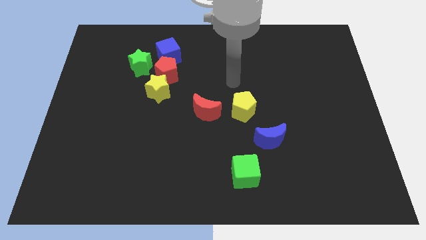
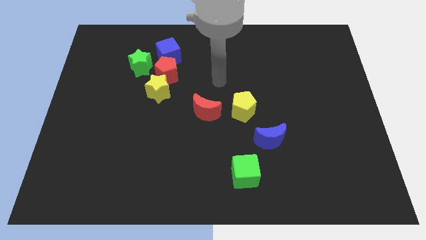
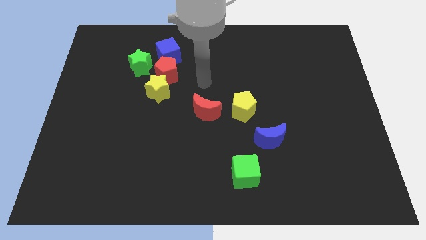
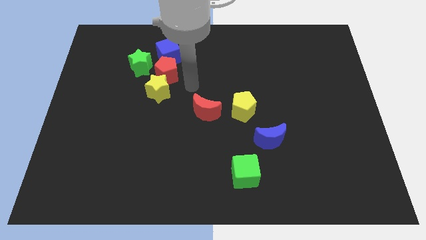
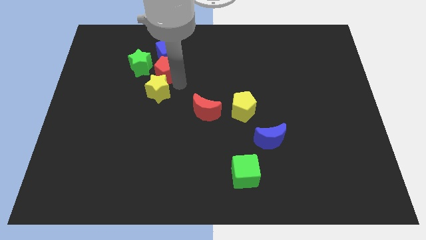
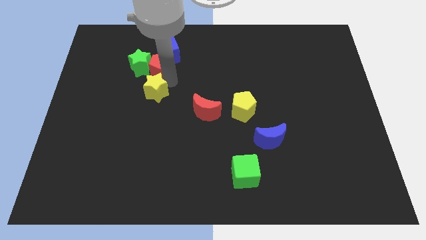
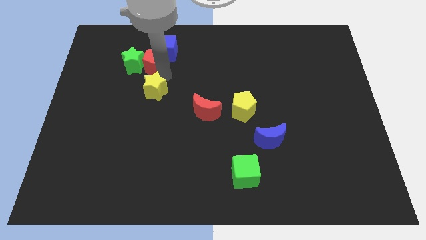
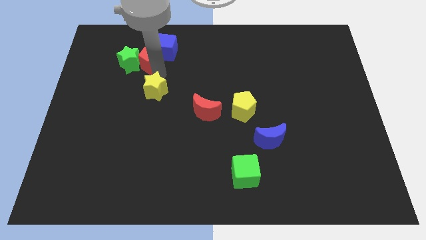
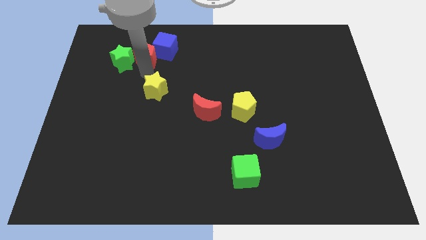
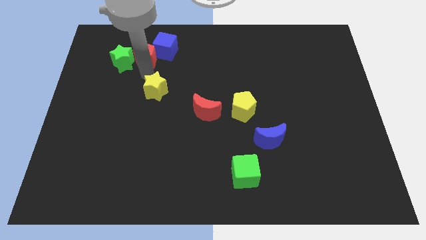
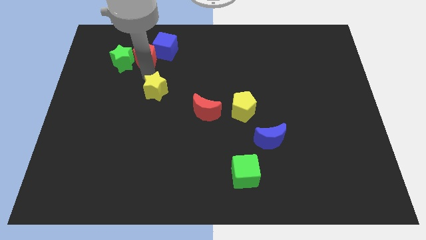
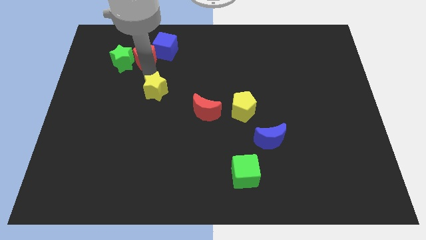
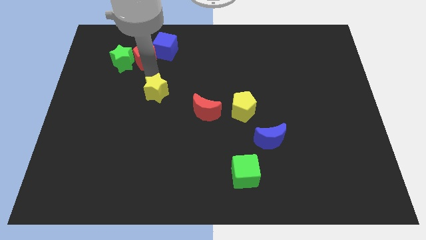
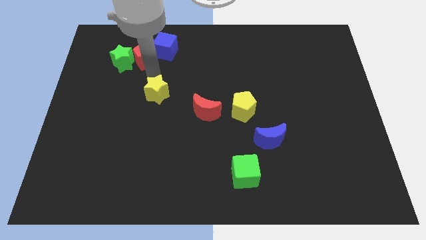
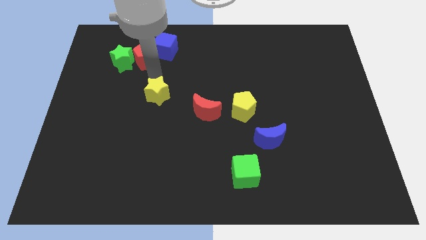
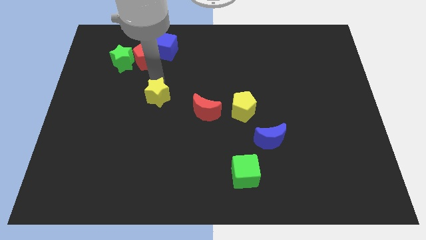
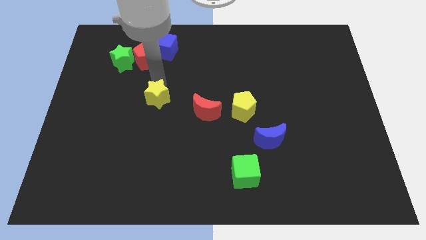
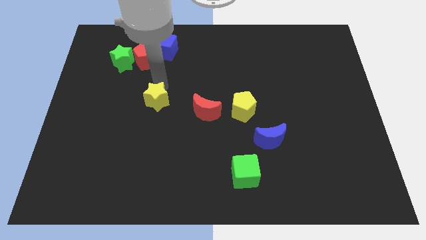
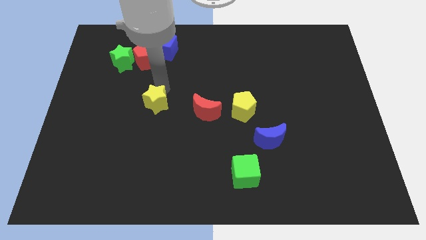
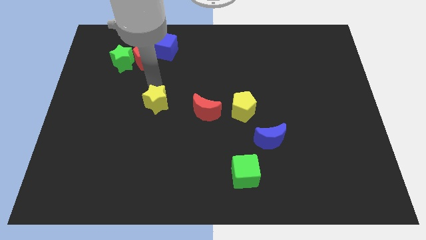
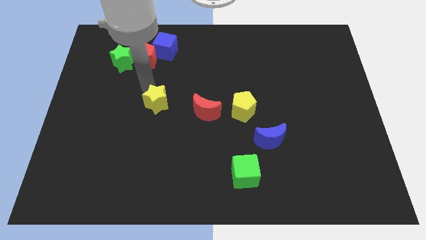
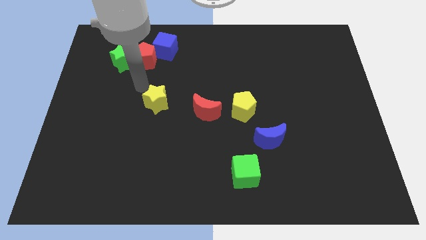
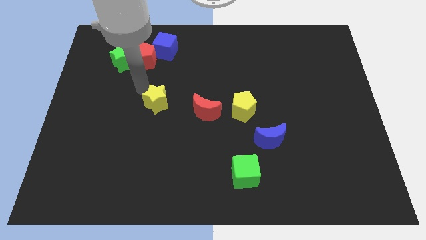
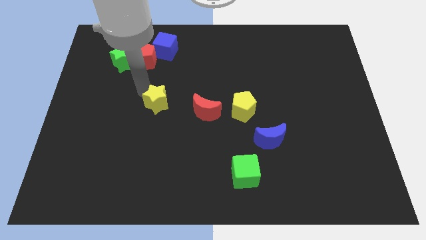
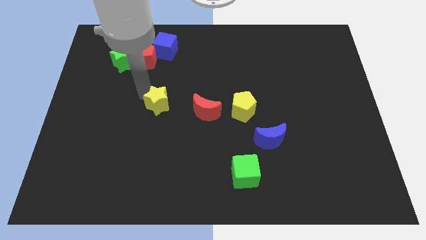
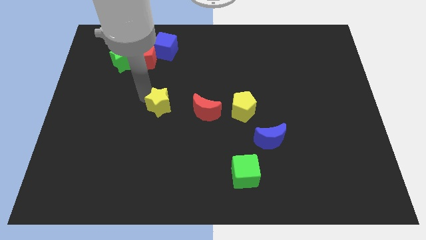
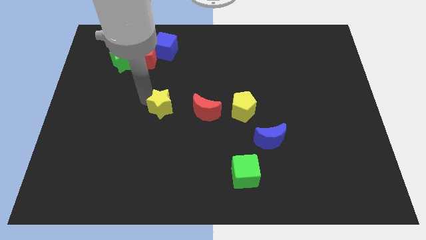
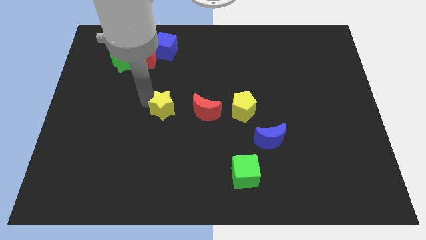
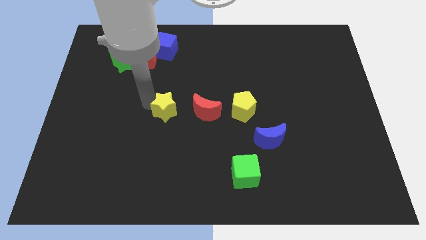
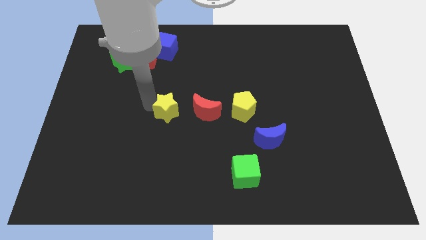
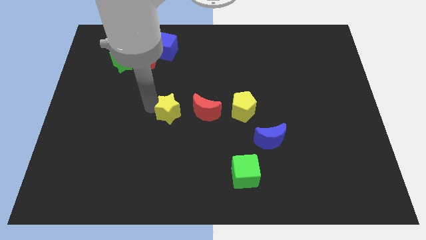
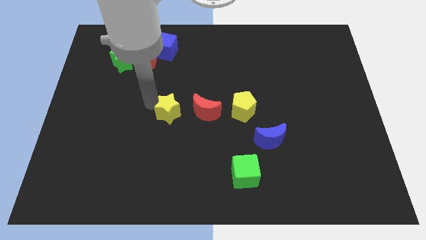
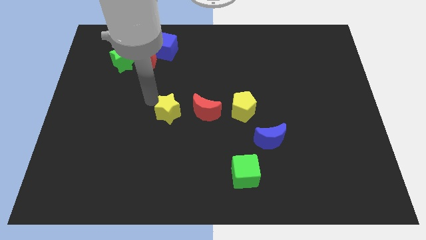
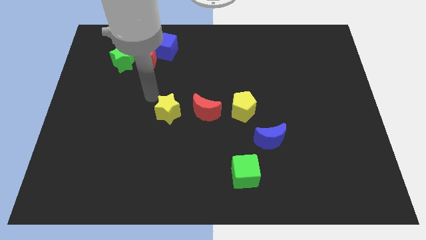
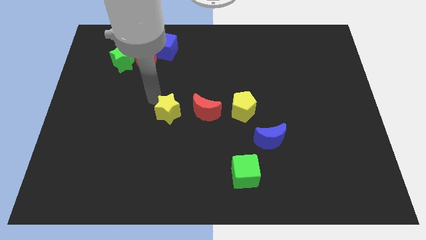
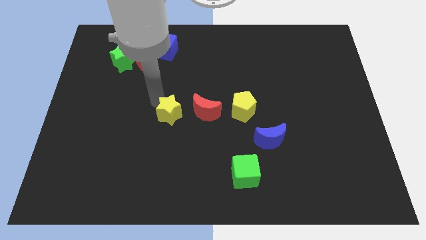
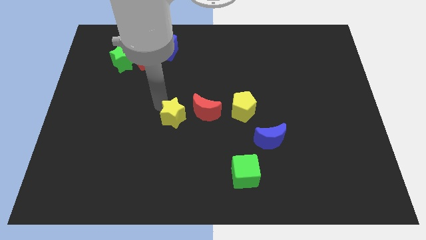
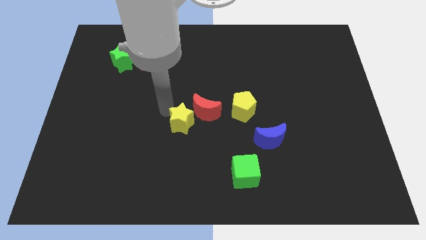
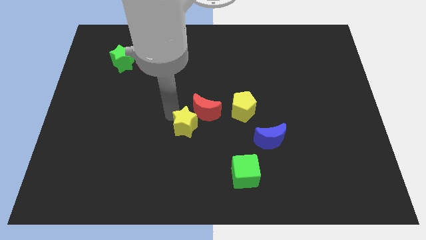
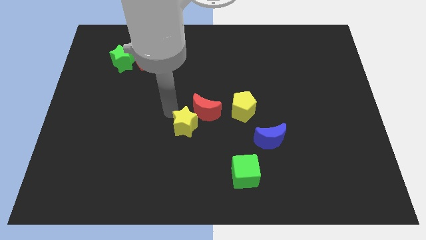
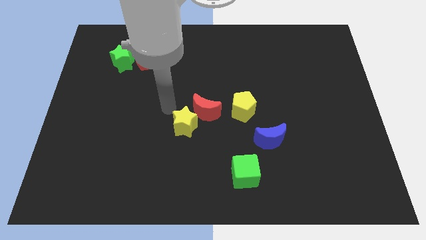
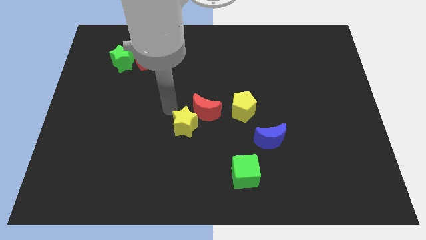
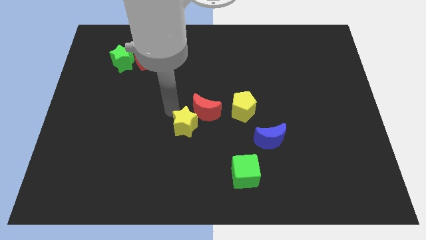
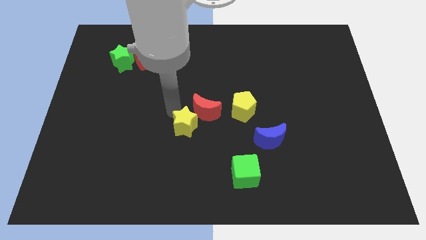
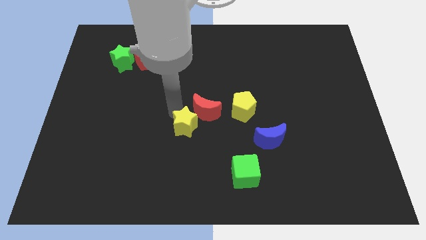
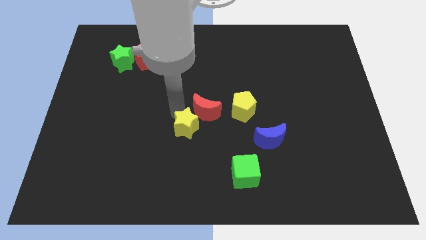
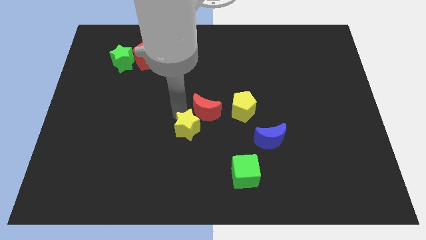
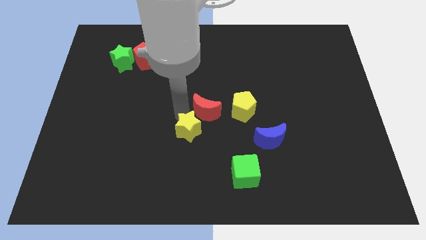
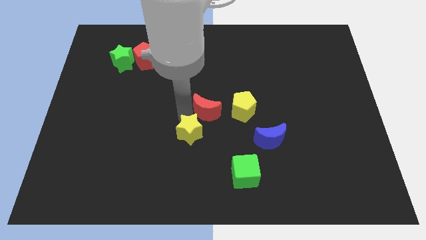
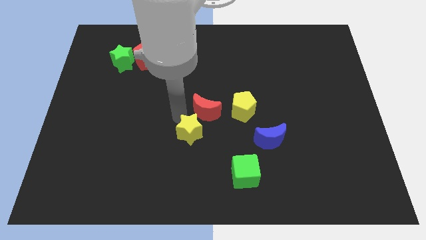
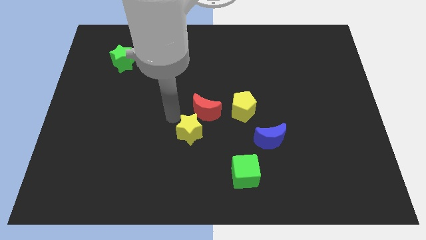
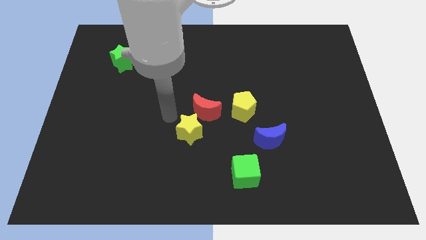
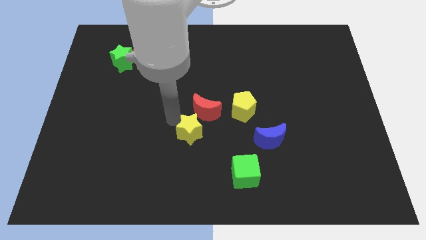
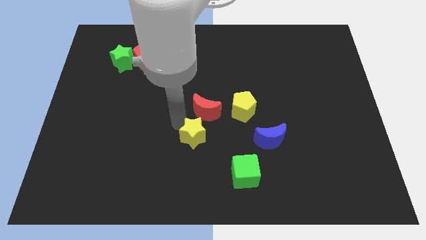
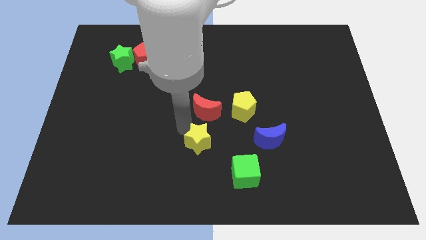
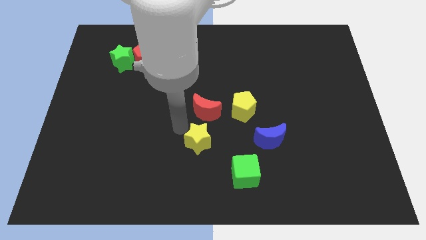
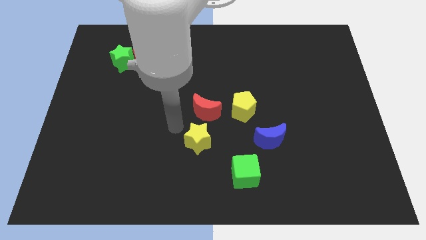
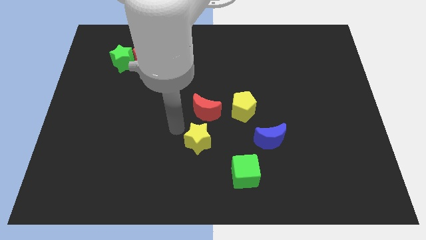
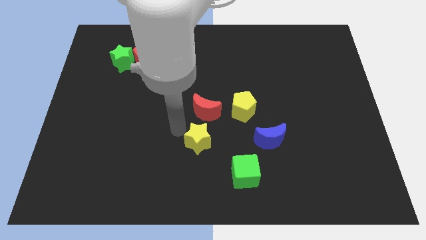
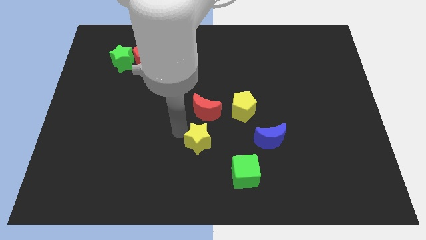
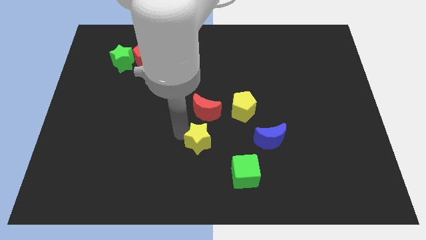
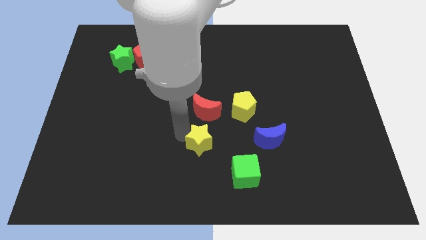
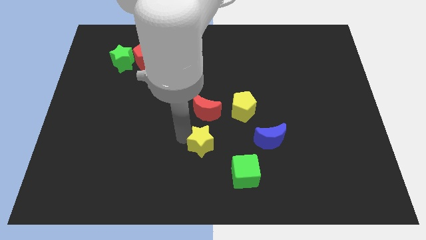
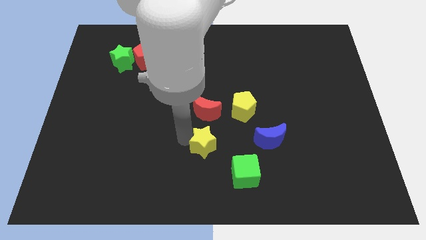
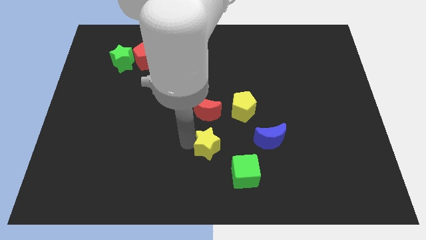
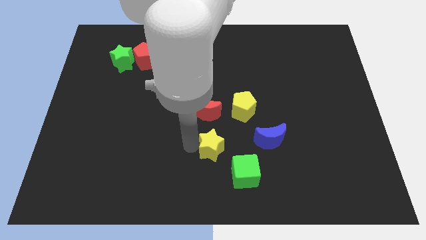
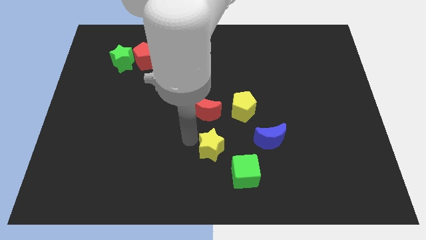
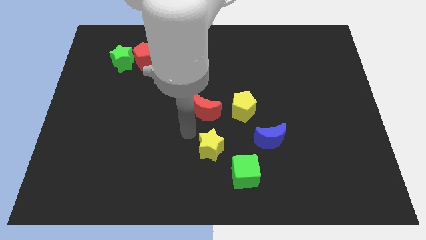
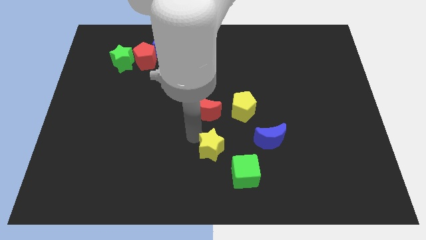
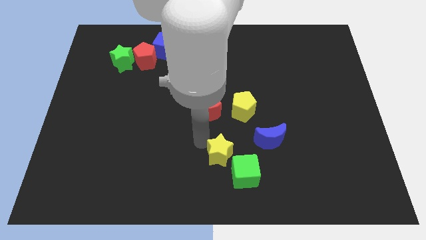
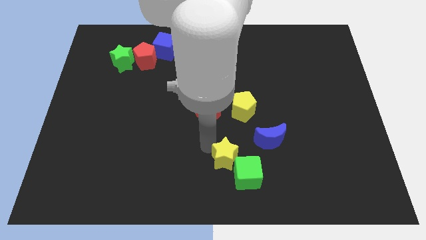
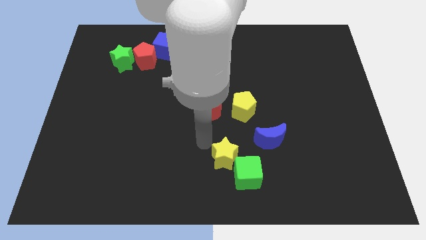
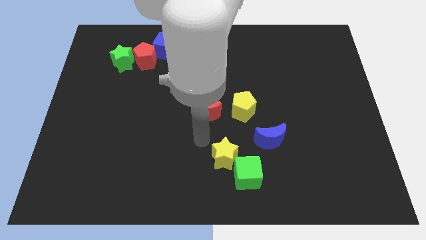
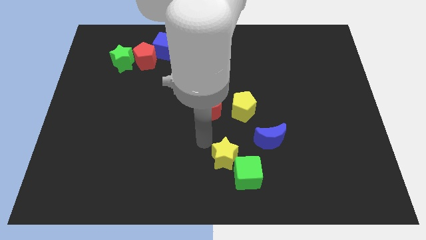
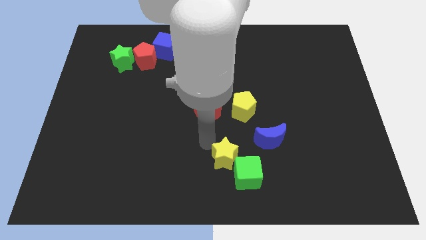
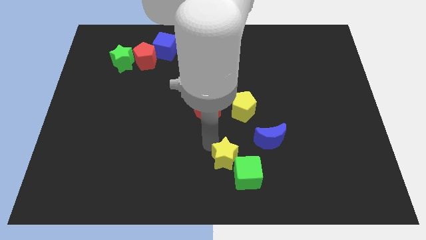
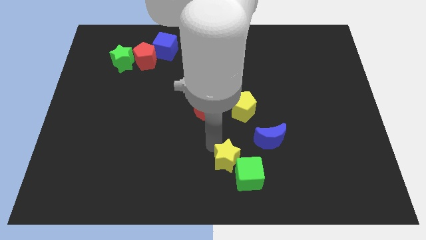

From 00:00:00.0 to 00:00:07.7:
slide the yellow star to the green cube

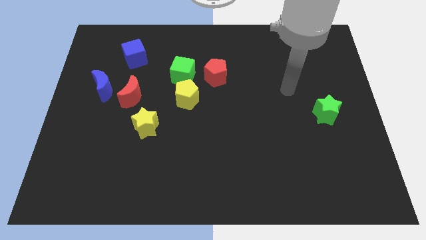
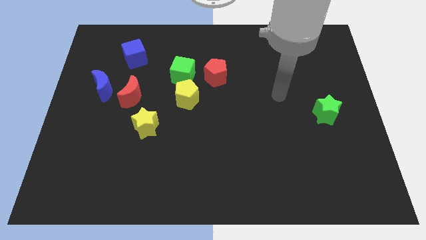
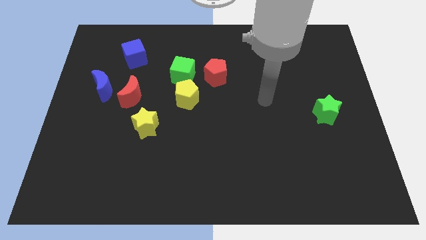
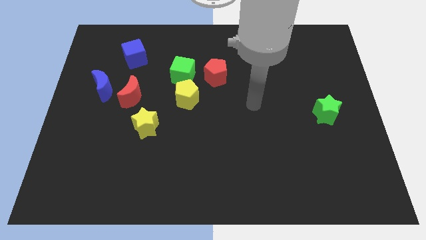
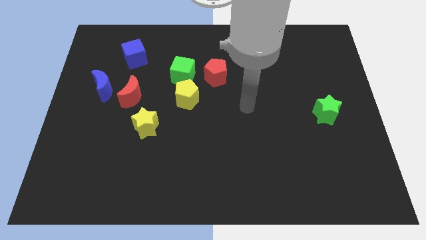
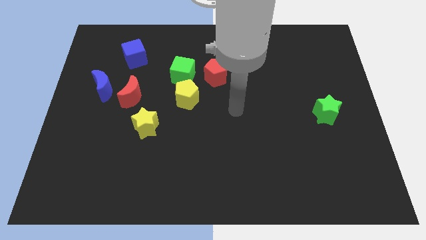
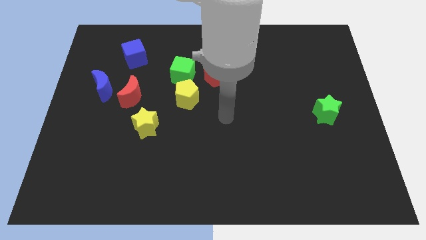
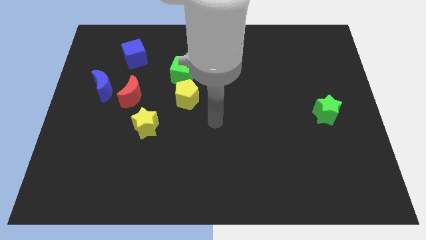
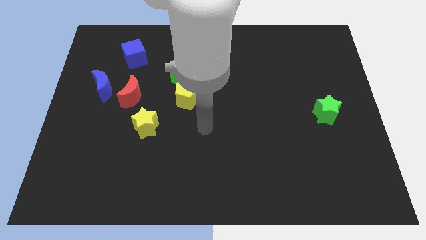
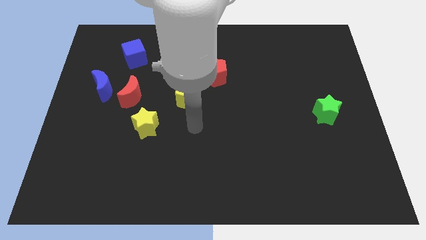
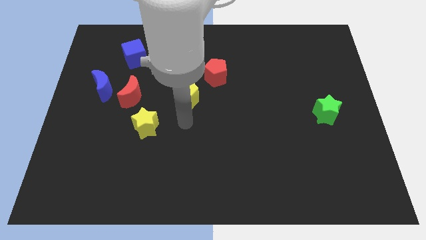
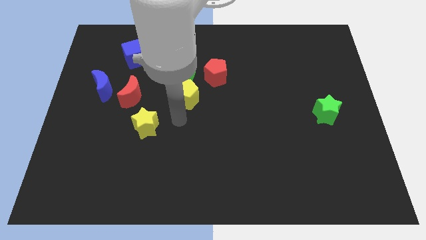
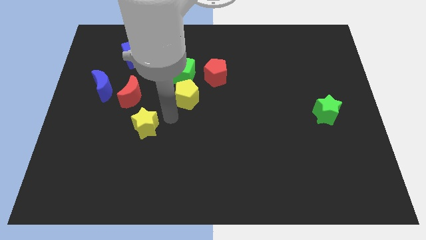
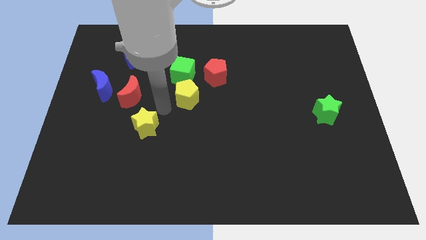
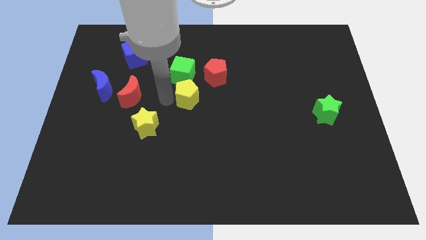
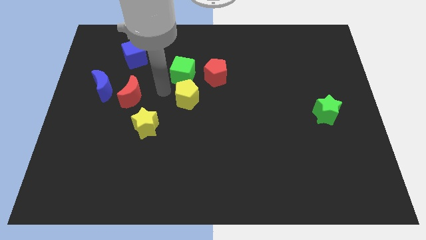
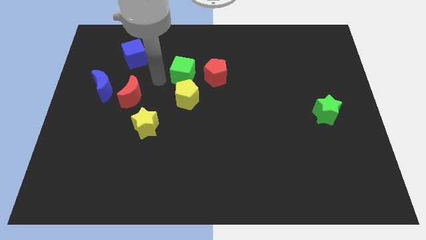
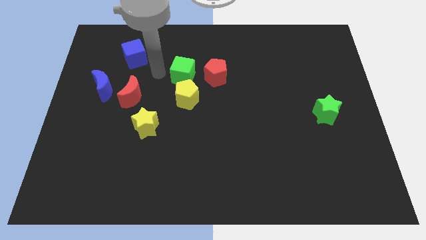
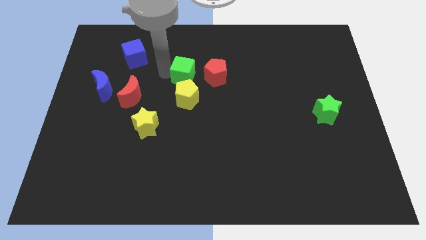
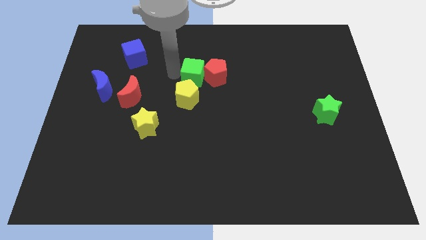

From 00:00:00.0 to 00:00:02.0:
push the green cube to the red pentagon
